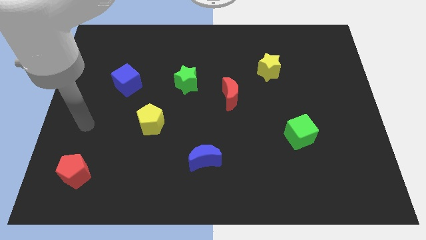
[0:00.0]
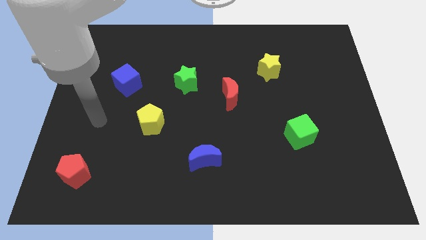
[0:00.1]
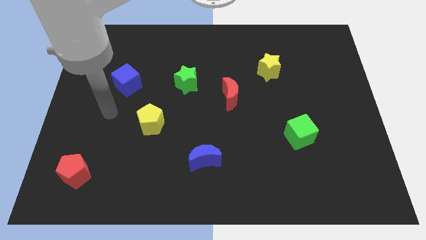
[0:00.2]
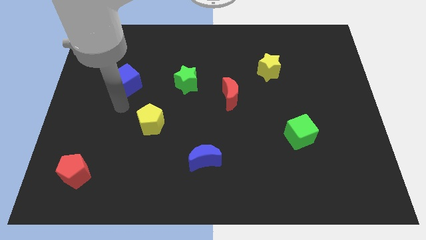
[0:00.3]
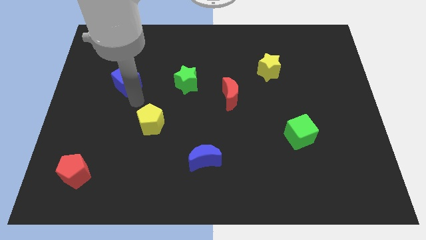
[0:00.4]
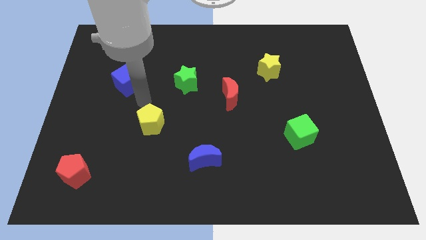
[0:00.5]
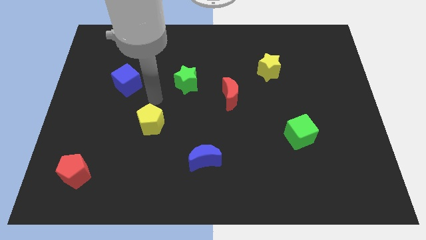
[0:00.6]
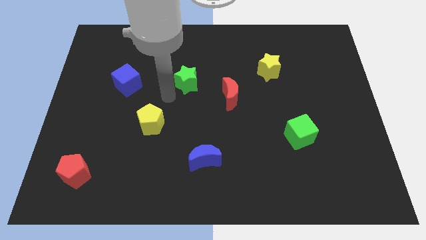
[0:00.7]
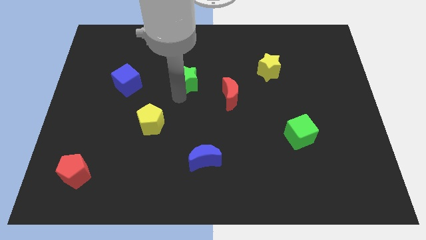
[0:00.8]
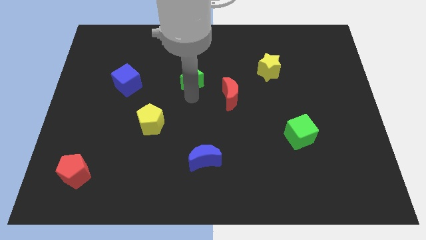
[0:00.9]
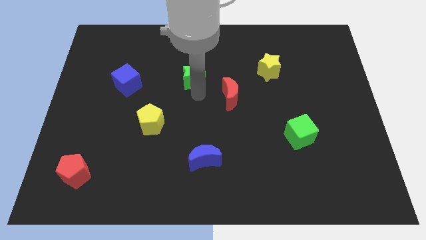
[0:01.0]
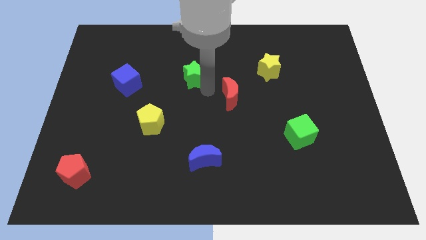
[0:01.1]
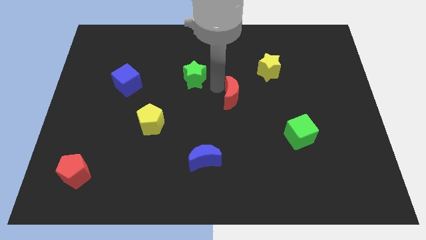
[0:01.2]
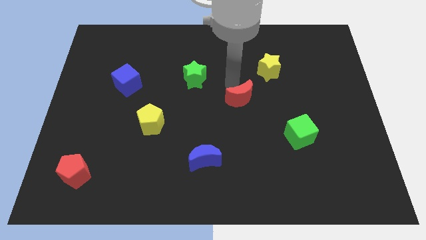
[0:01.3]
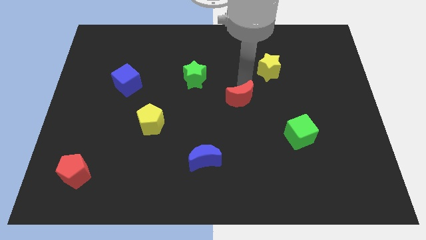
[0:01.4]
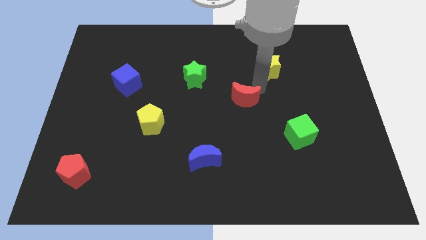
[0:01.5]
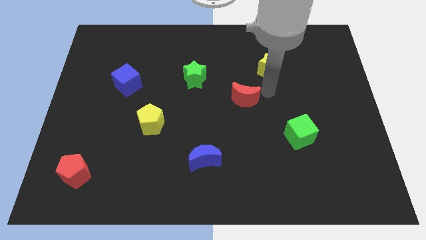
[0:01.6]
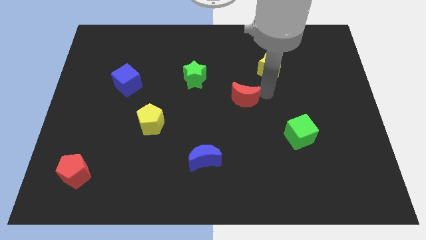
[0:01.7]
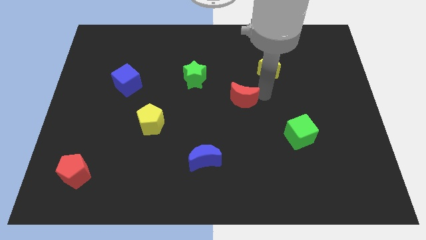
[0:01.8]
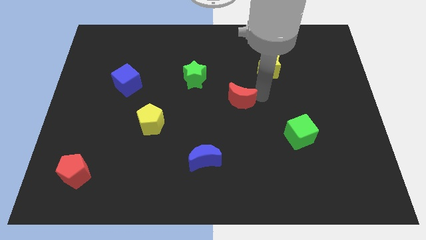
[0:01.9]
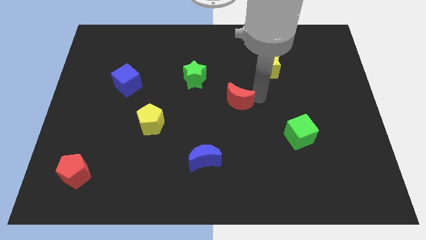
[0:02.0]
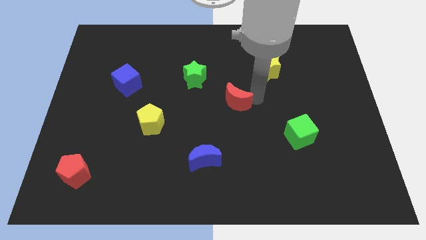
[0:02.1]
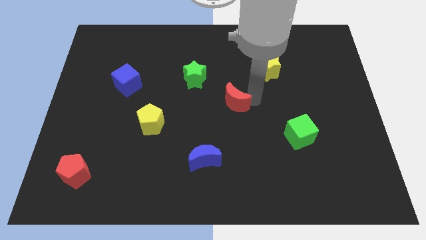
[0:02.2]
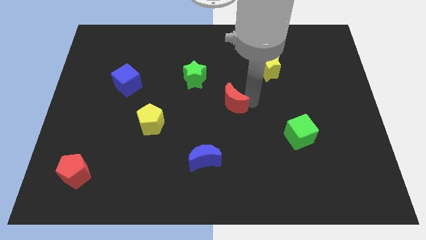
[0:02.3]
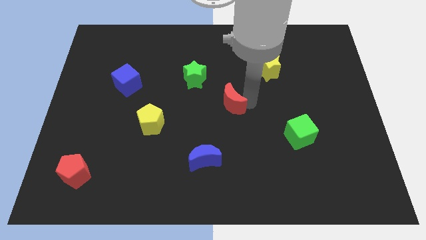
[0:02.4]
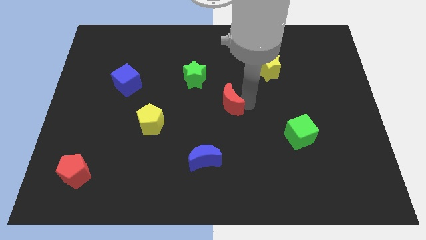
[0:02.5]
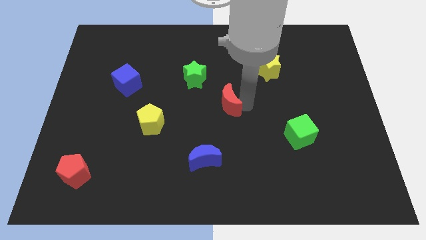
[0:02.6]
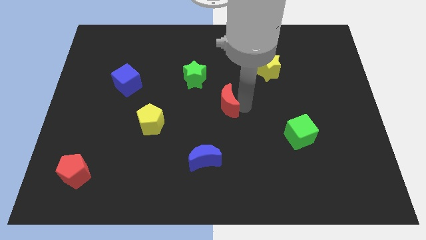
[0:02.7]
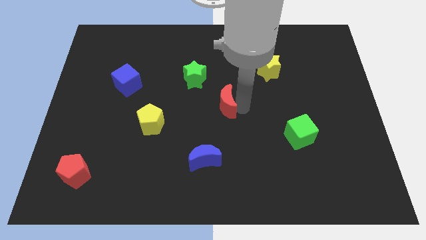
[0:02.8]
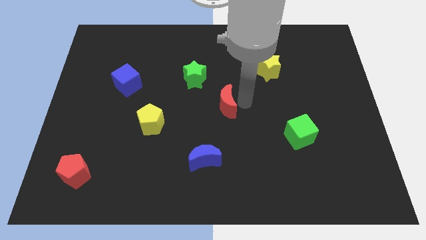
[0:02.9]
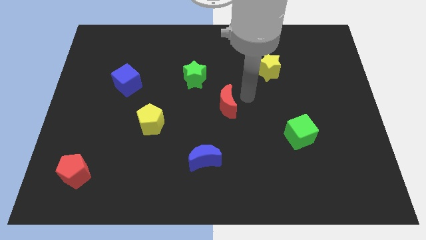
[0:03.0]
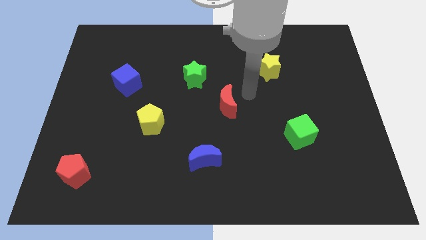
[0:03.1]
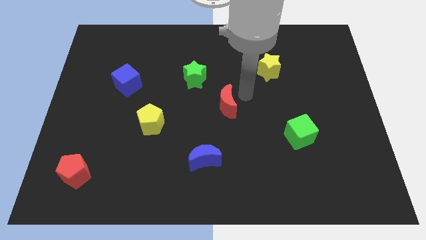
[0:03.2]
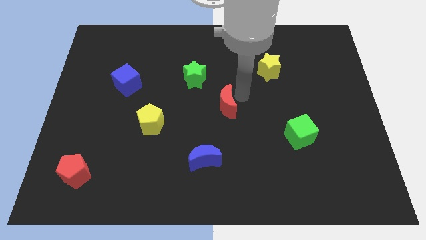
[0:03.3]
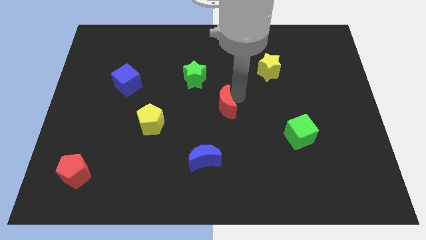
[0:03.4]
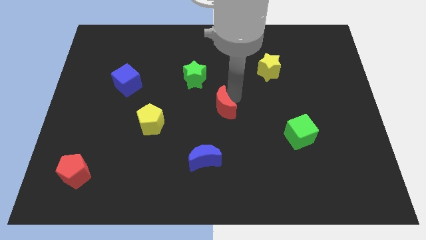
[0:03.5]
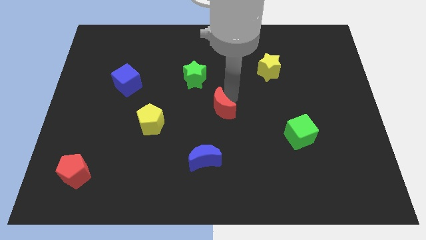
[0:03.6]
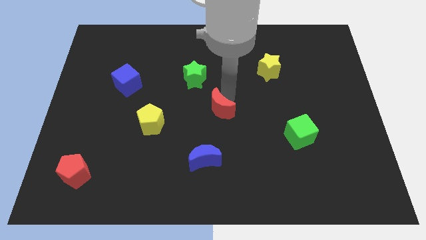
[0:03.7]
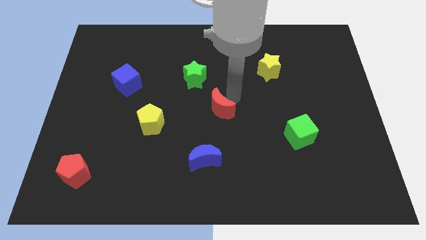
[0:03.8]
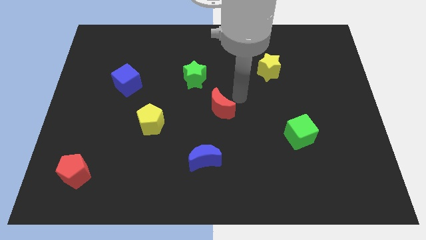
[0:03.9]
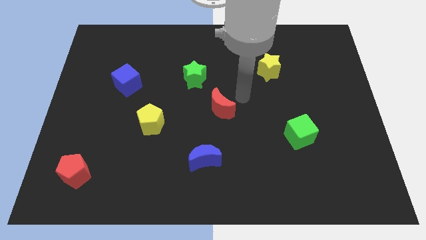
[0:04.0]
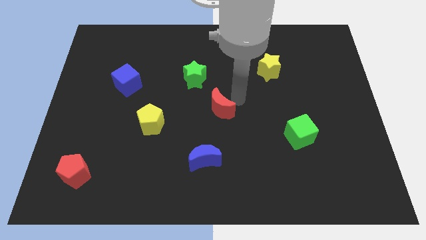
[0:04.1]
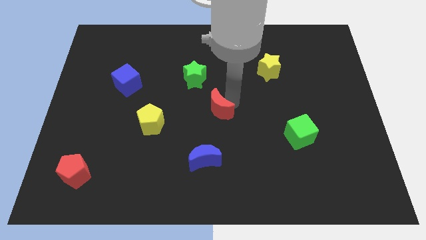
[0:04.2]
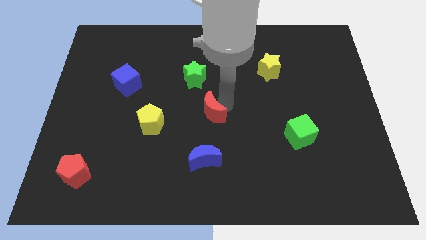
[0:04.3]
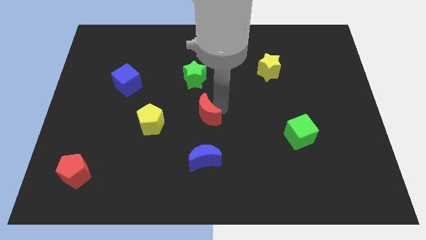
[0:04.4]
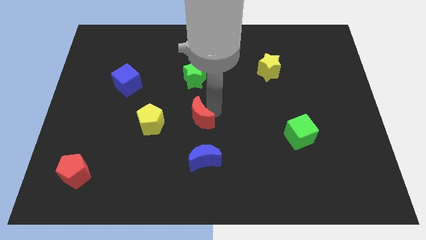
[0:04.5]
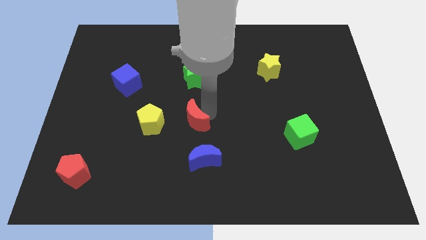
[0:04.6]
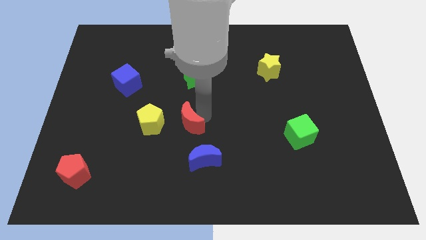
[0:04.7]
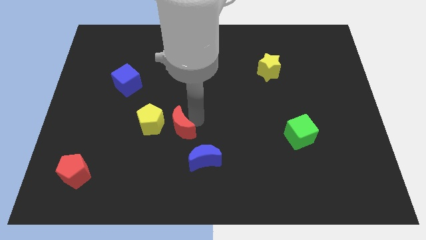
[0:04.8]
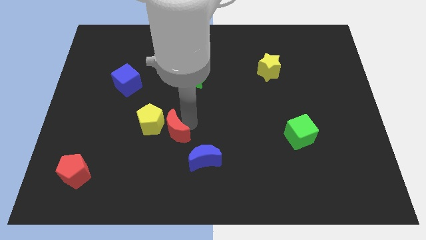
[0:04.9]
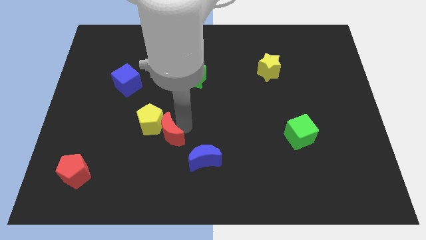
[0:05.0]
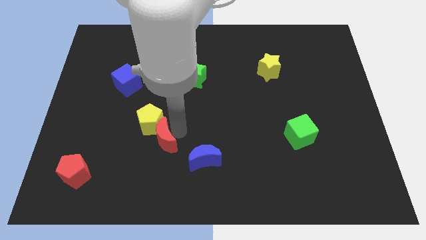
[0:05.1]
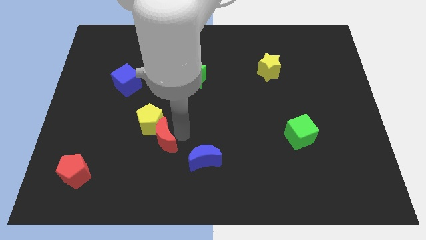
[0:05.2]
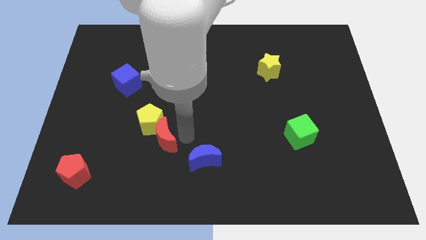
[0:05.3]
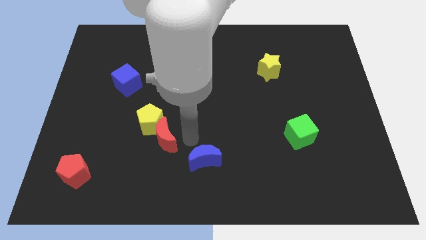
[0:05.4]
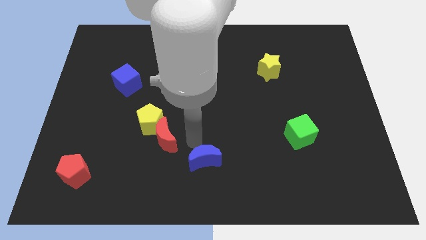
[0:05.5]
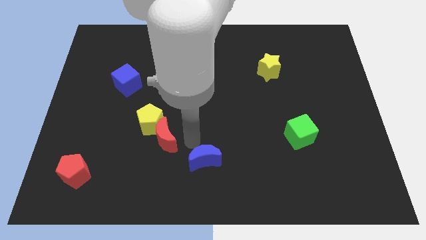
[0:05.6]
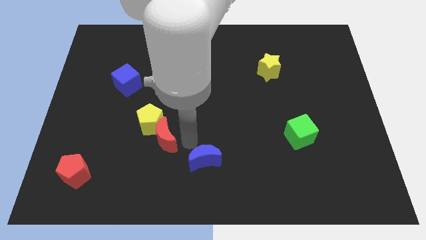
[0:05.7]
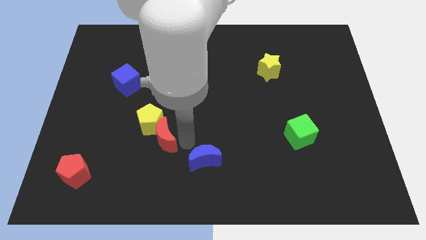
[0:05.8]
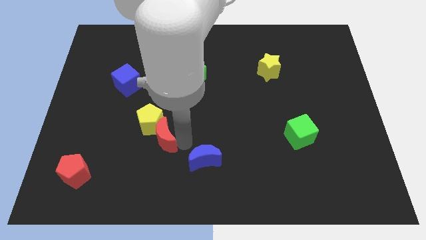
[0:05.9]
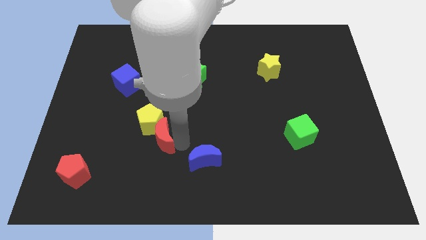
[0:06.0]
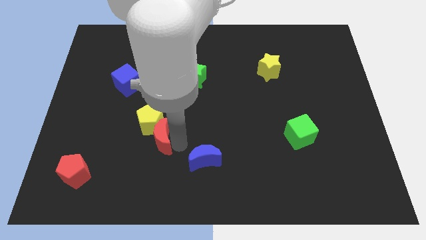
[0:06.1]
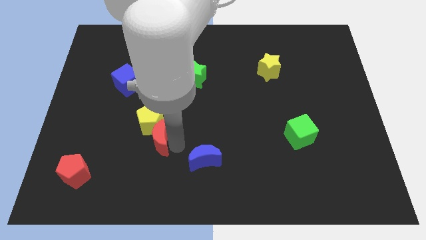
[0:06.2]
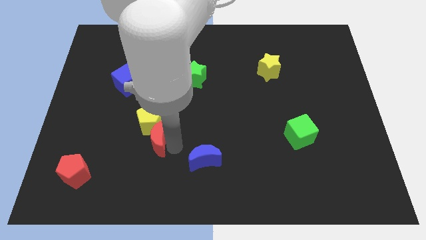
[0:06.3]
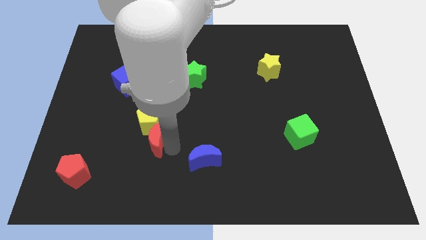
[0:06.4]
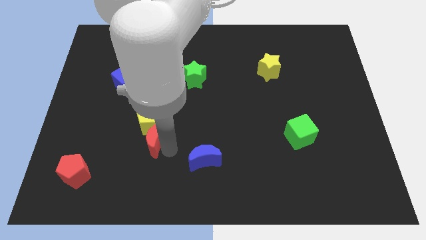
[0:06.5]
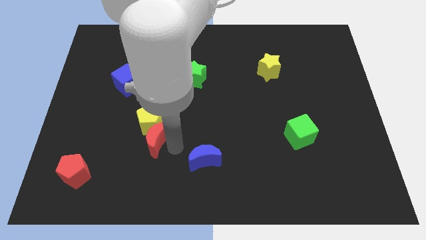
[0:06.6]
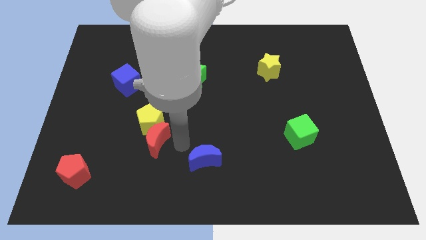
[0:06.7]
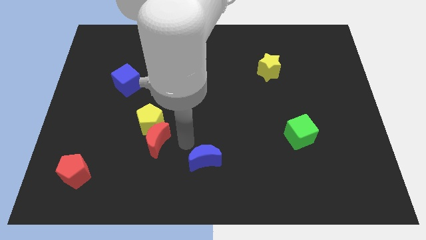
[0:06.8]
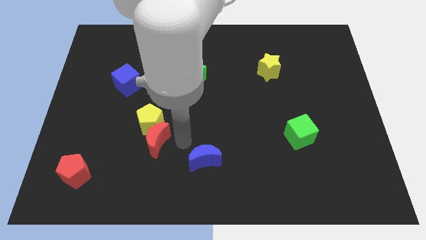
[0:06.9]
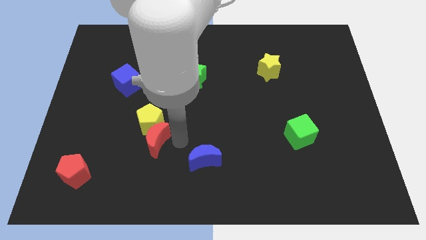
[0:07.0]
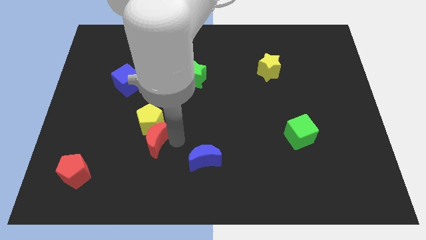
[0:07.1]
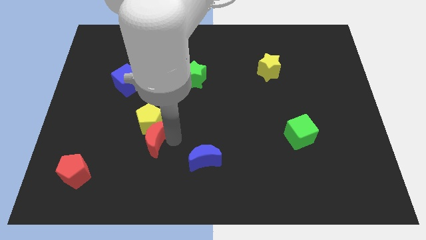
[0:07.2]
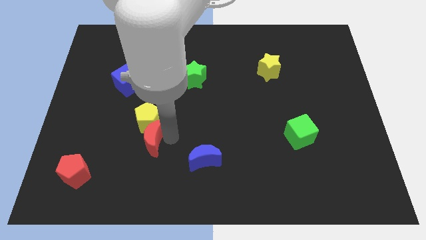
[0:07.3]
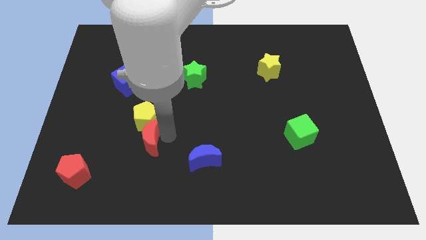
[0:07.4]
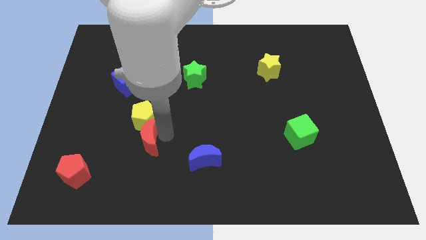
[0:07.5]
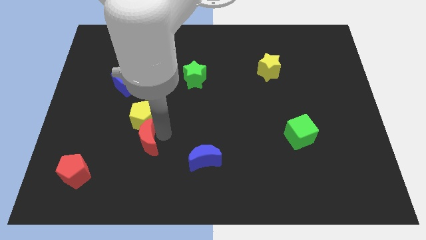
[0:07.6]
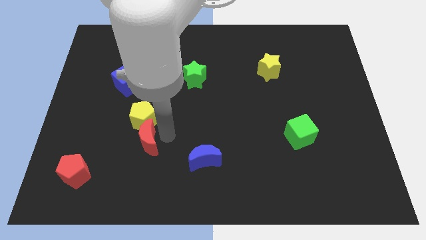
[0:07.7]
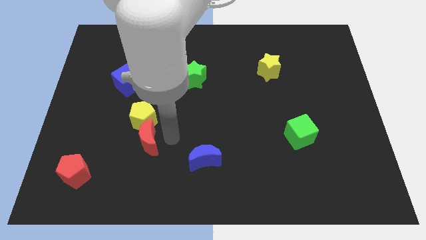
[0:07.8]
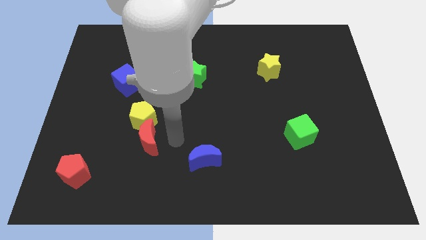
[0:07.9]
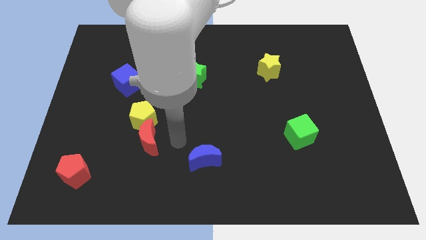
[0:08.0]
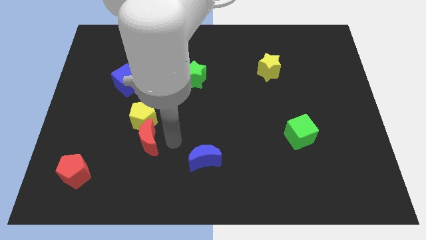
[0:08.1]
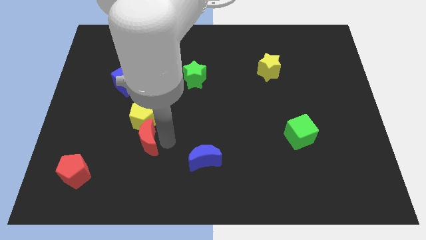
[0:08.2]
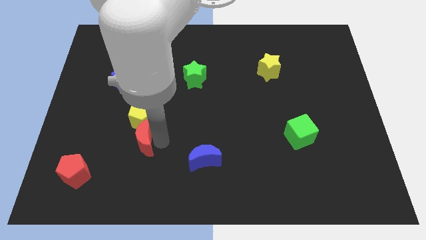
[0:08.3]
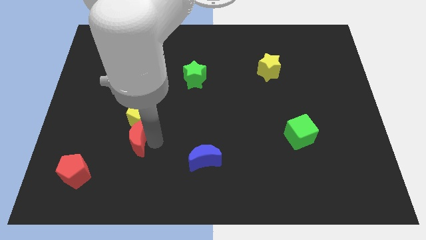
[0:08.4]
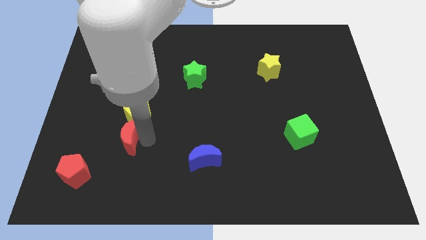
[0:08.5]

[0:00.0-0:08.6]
put the red moon to the top right side of the red pentagon
